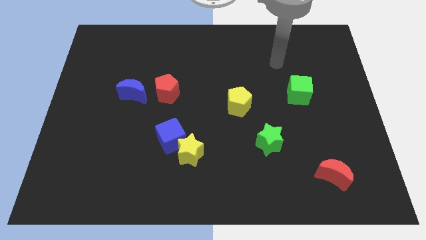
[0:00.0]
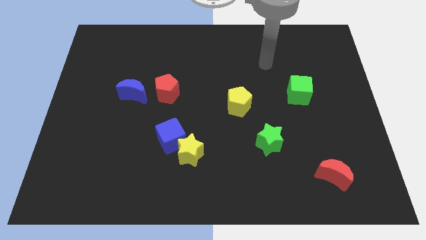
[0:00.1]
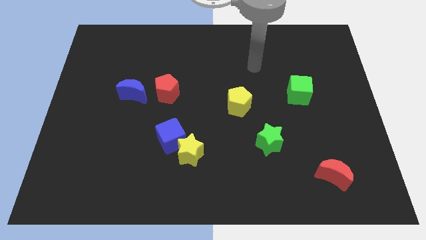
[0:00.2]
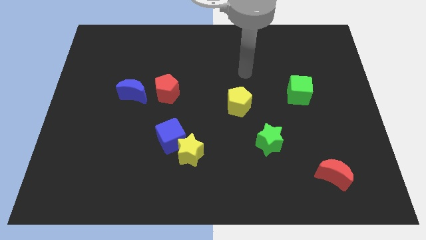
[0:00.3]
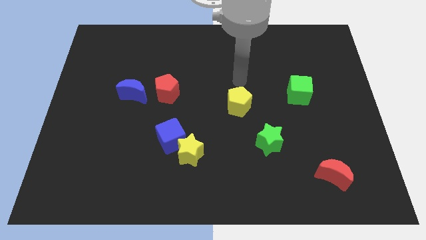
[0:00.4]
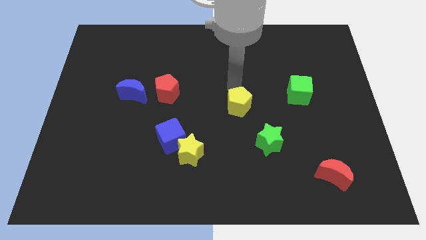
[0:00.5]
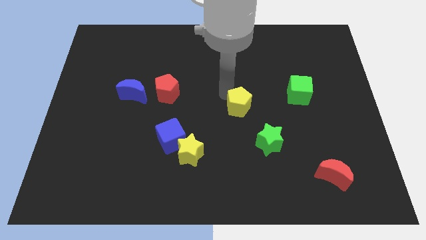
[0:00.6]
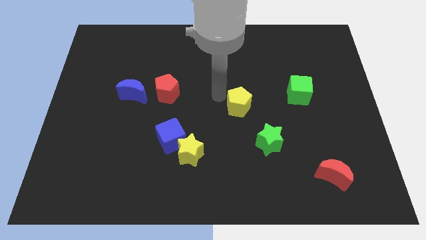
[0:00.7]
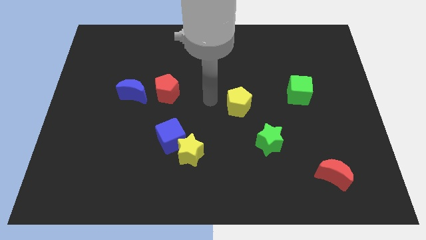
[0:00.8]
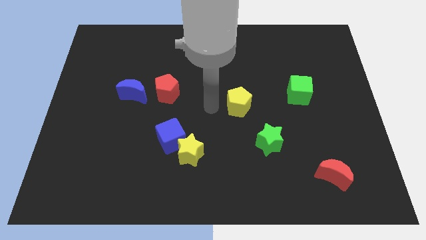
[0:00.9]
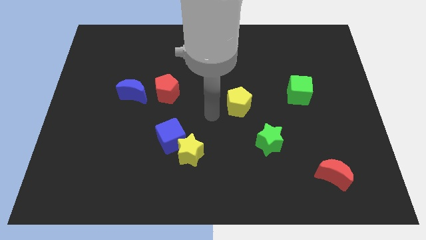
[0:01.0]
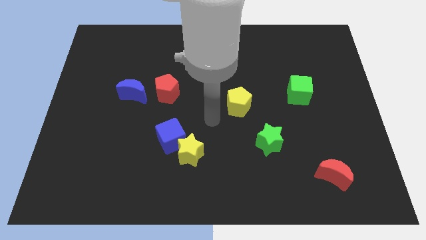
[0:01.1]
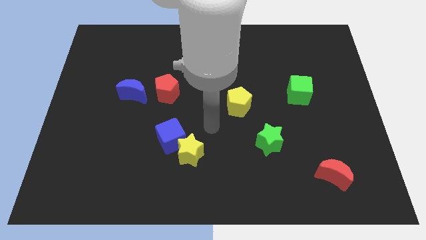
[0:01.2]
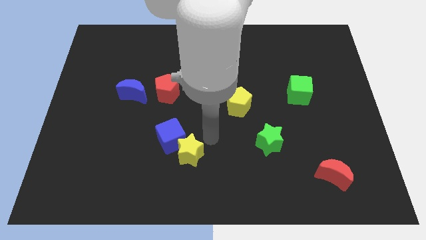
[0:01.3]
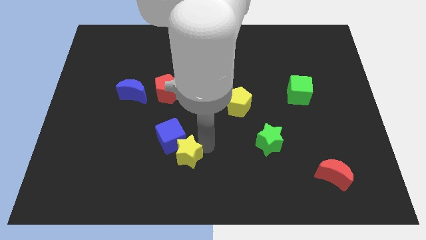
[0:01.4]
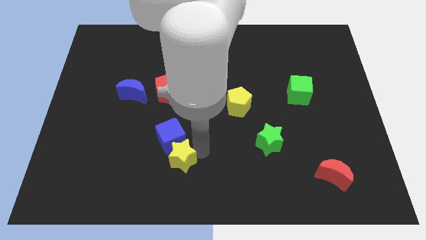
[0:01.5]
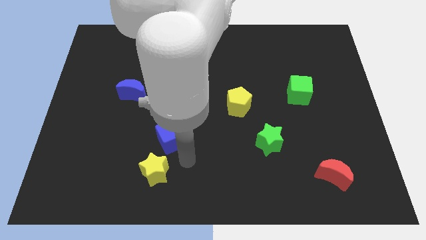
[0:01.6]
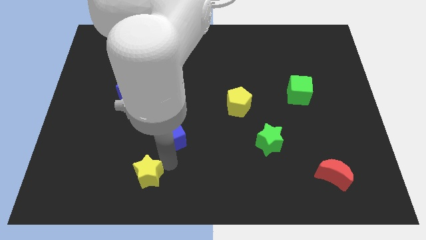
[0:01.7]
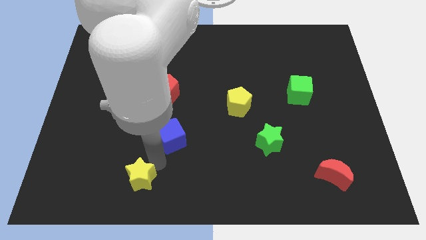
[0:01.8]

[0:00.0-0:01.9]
pull the blue cube apart from the yellow star

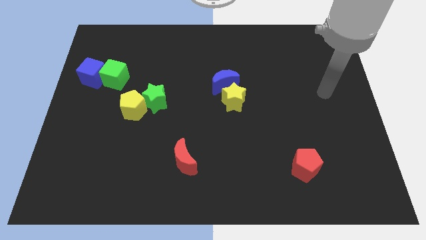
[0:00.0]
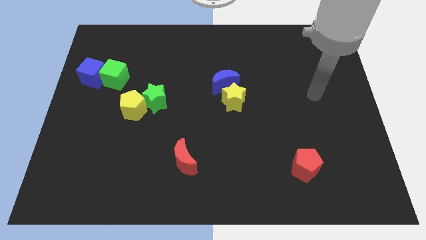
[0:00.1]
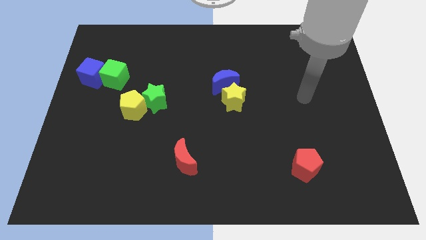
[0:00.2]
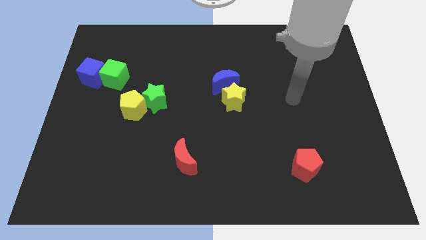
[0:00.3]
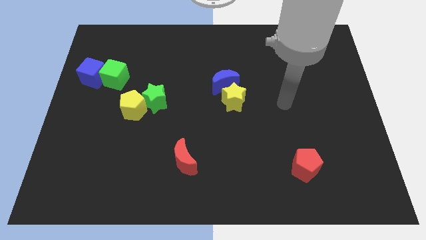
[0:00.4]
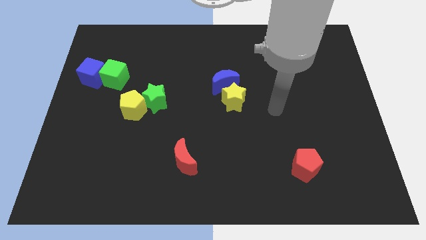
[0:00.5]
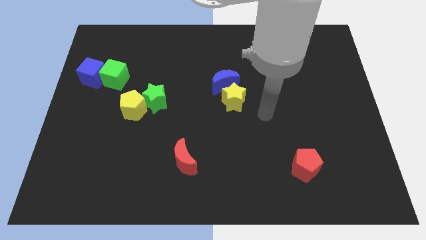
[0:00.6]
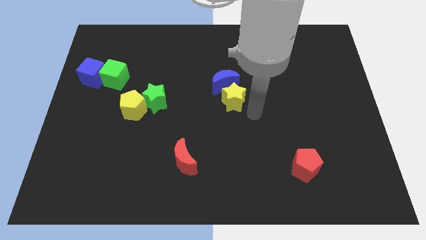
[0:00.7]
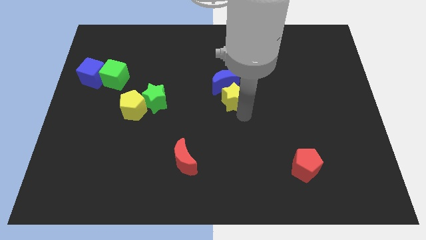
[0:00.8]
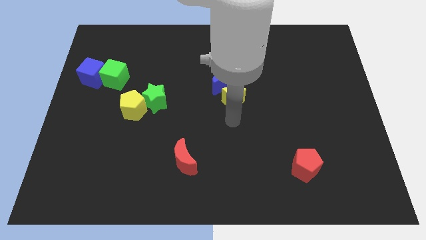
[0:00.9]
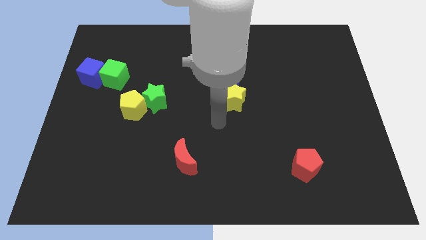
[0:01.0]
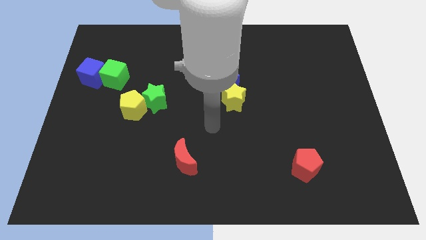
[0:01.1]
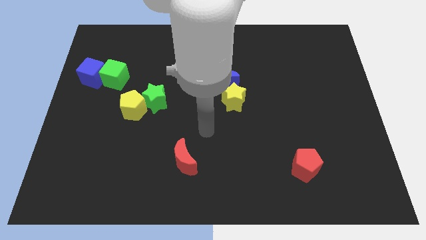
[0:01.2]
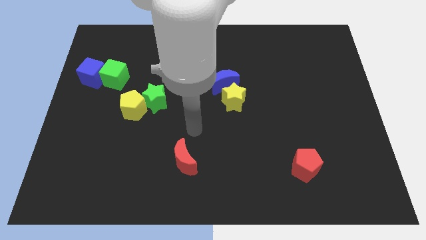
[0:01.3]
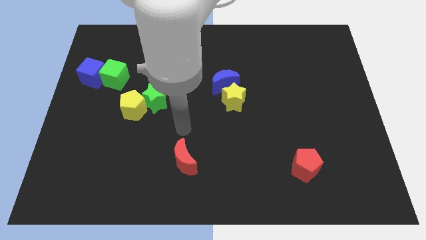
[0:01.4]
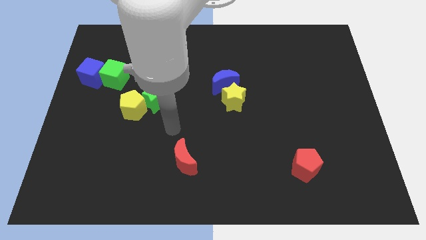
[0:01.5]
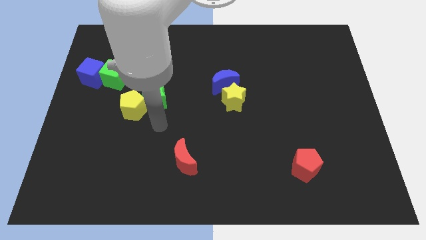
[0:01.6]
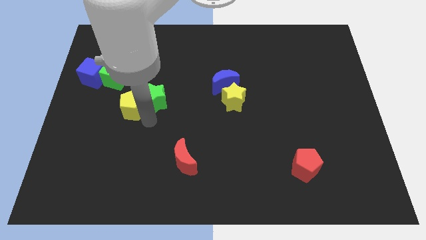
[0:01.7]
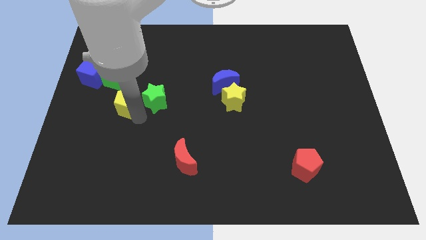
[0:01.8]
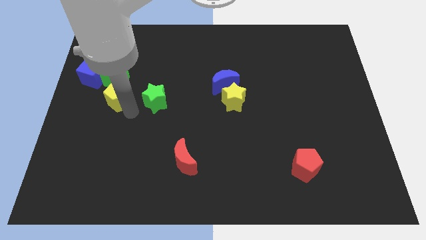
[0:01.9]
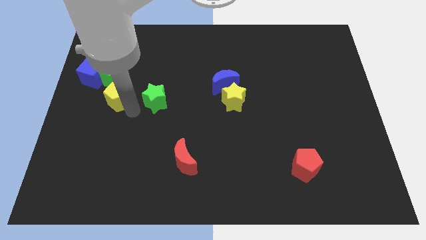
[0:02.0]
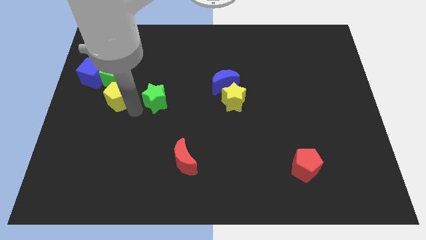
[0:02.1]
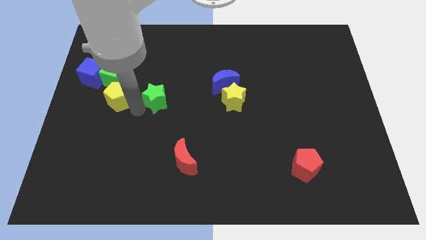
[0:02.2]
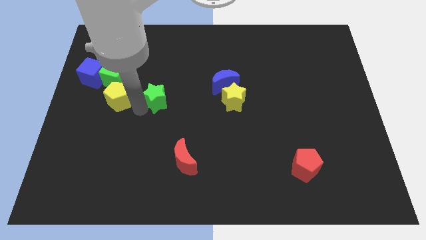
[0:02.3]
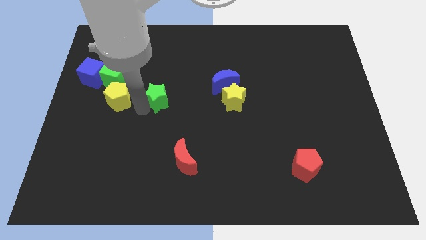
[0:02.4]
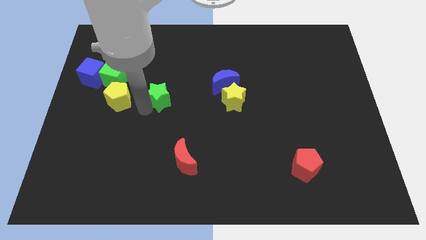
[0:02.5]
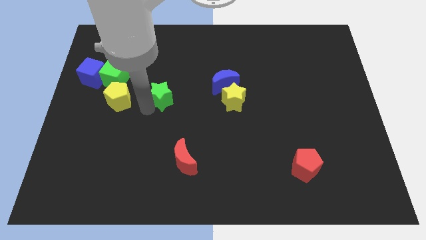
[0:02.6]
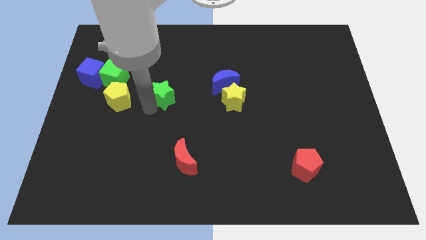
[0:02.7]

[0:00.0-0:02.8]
move the green star away from the yellow pentagon

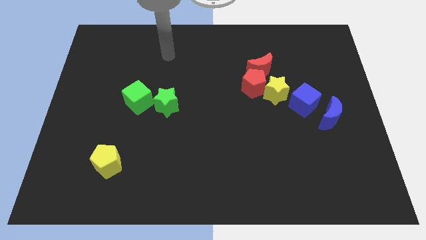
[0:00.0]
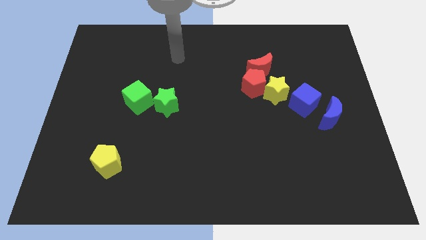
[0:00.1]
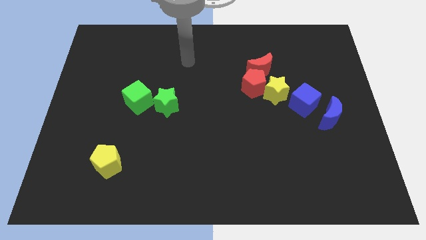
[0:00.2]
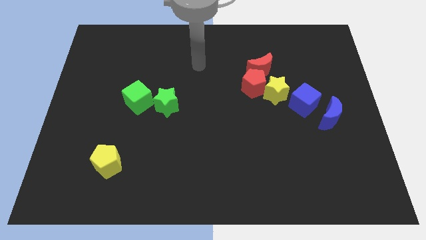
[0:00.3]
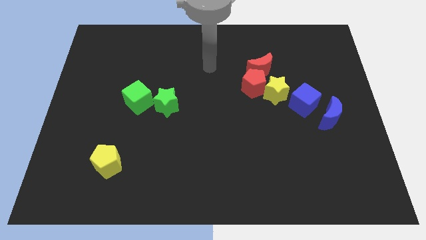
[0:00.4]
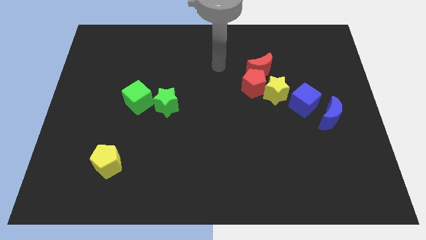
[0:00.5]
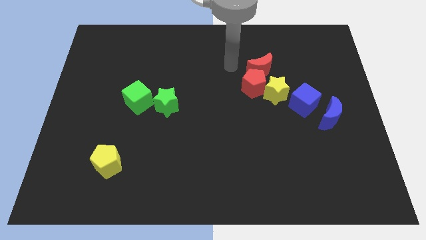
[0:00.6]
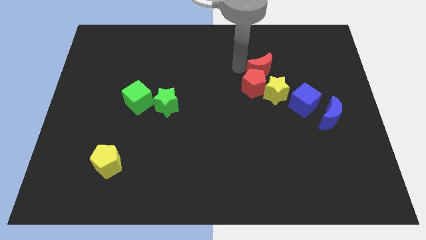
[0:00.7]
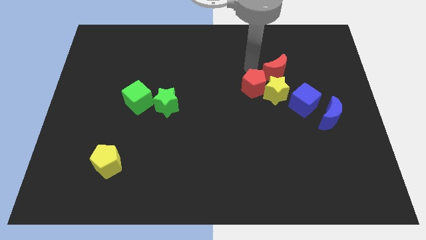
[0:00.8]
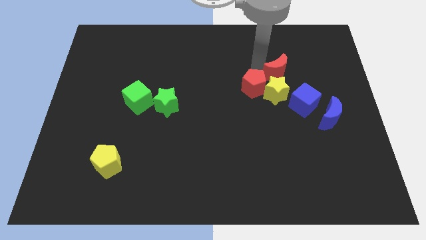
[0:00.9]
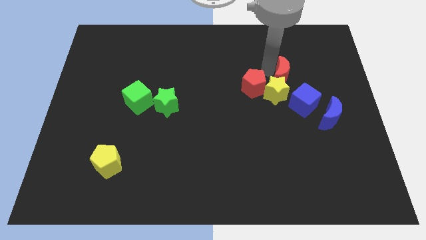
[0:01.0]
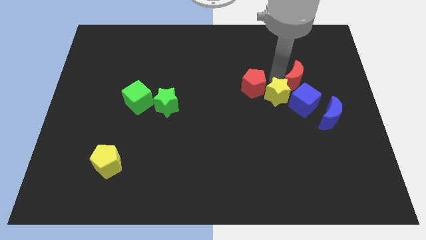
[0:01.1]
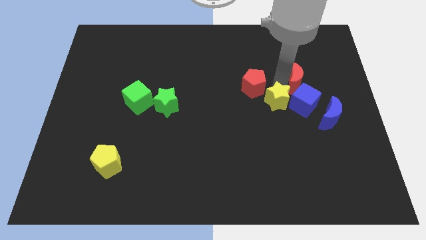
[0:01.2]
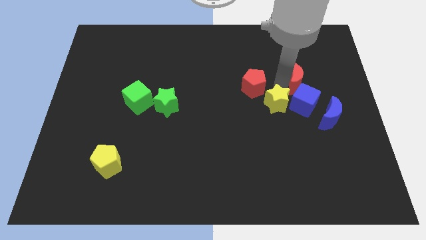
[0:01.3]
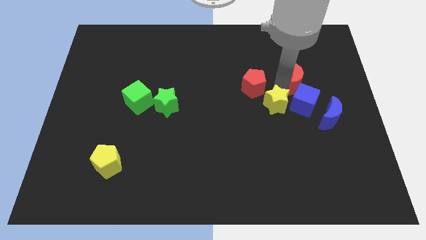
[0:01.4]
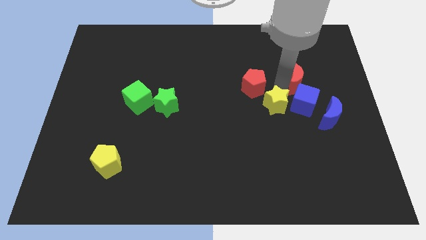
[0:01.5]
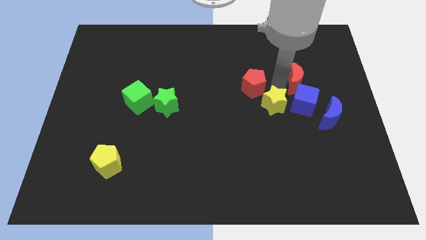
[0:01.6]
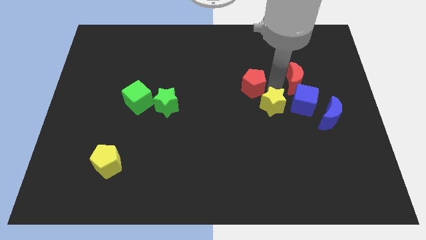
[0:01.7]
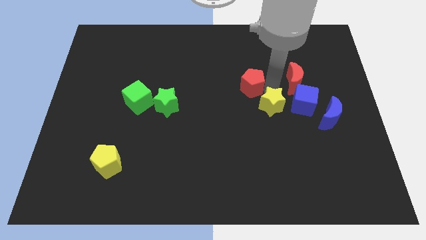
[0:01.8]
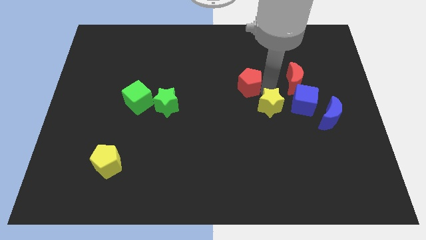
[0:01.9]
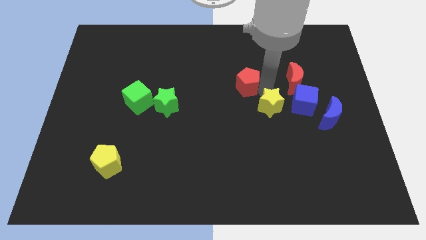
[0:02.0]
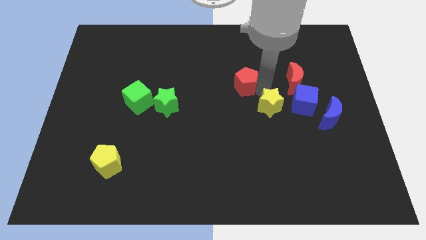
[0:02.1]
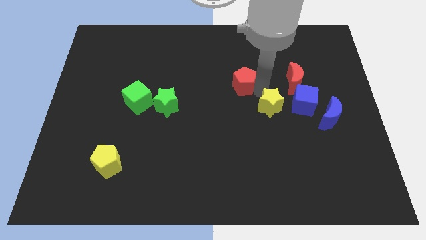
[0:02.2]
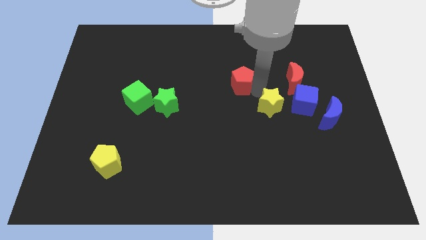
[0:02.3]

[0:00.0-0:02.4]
move the red pentagon away from the yellow star and red moon

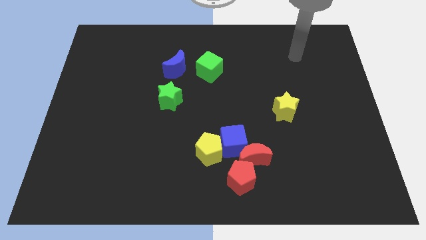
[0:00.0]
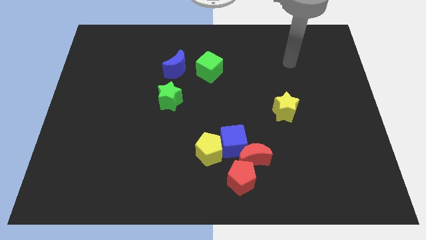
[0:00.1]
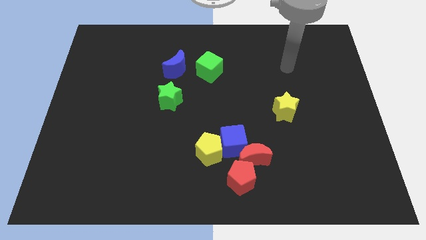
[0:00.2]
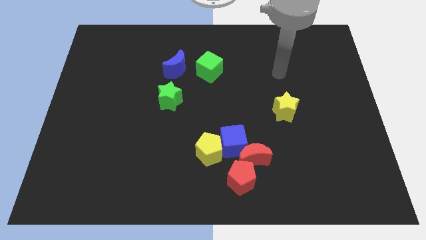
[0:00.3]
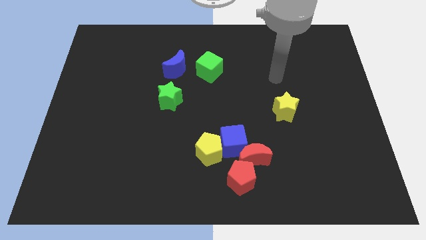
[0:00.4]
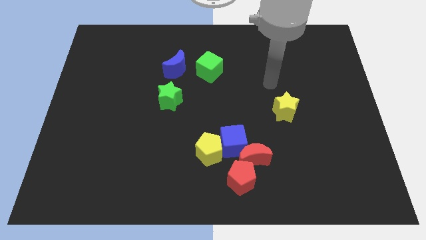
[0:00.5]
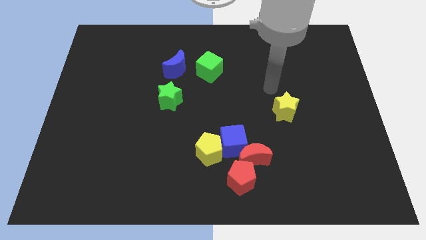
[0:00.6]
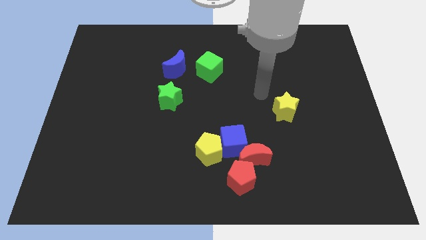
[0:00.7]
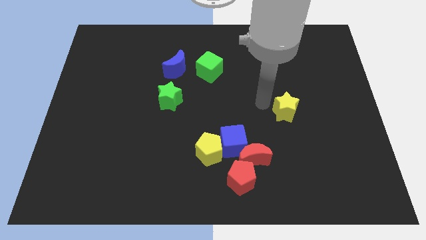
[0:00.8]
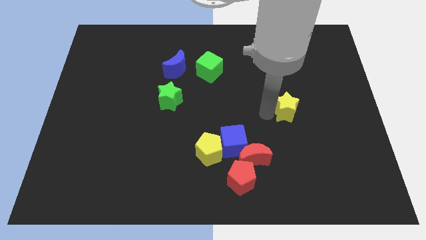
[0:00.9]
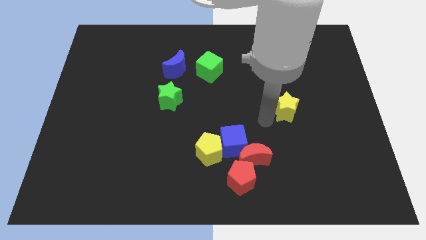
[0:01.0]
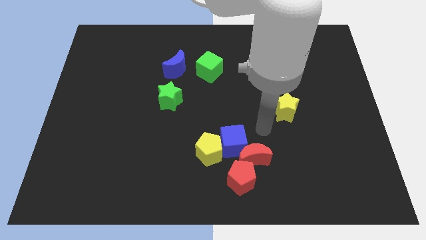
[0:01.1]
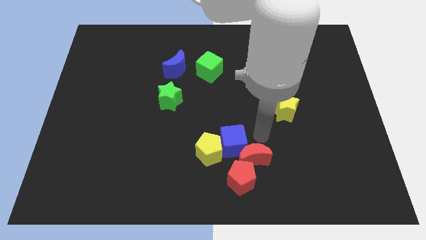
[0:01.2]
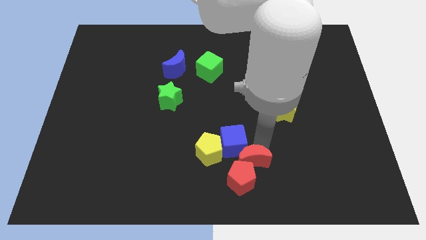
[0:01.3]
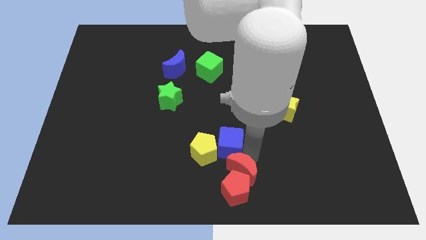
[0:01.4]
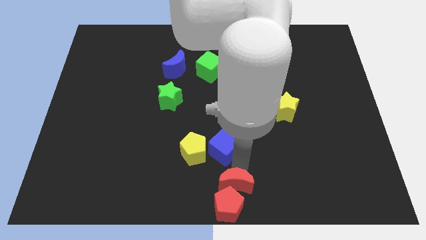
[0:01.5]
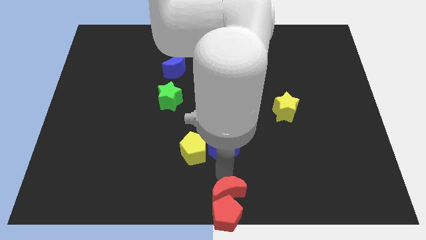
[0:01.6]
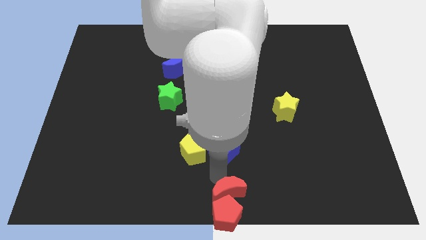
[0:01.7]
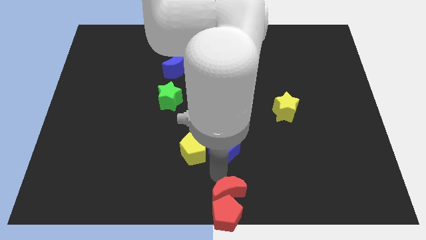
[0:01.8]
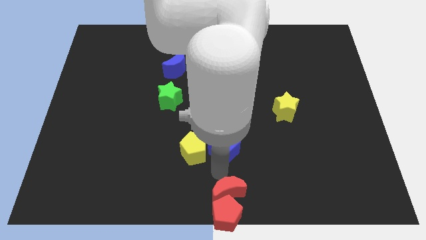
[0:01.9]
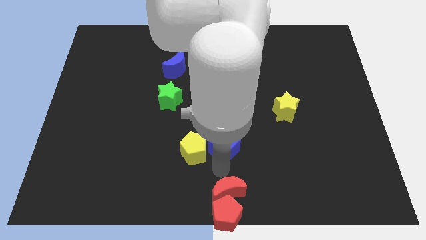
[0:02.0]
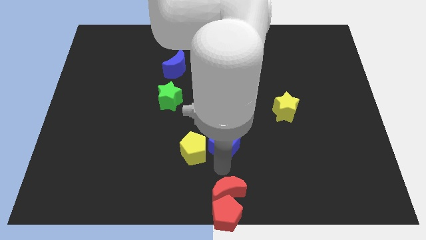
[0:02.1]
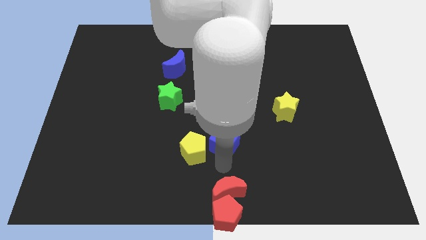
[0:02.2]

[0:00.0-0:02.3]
separate the blue cube from the clump

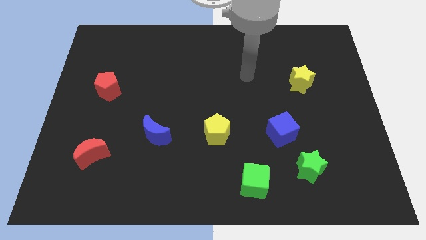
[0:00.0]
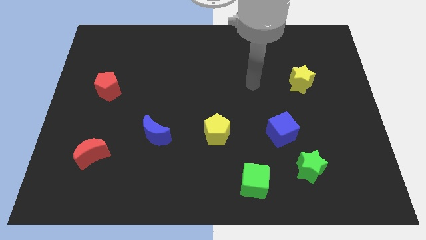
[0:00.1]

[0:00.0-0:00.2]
separate the blue cube from the green star
